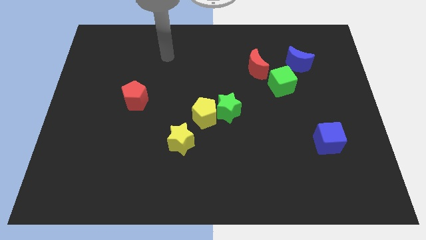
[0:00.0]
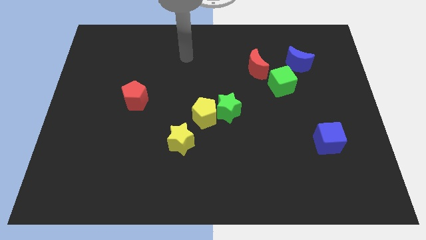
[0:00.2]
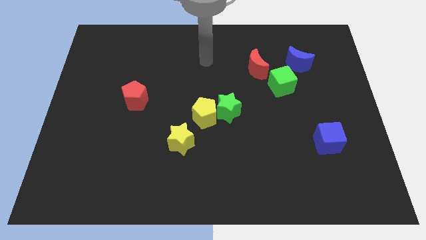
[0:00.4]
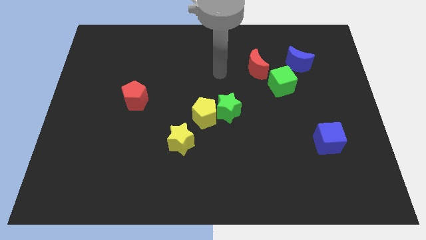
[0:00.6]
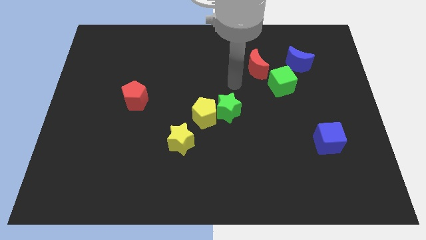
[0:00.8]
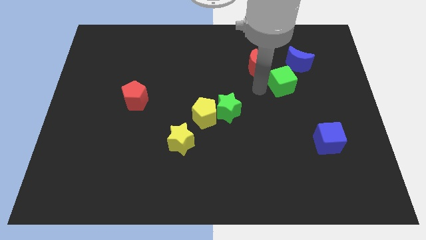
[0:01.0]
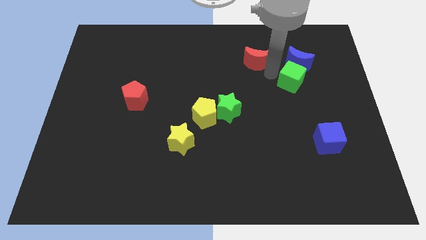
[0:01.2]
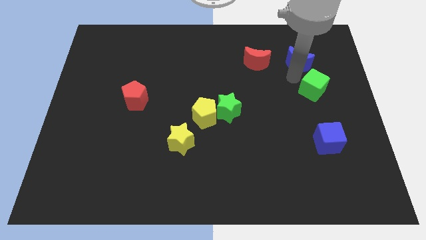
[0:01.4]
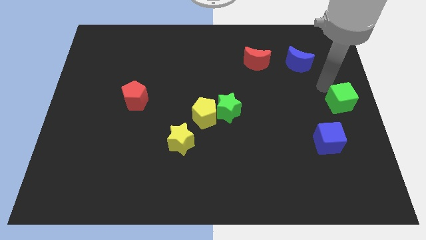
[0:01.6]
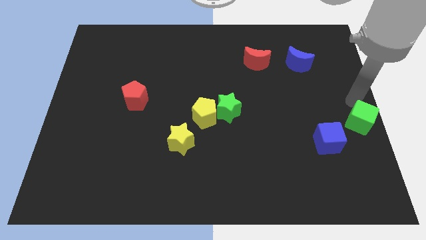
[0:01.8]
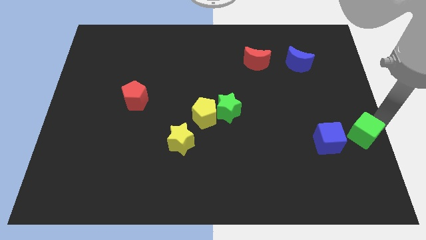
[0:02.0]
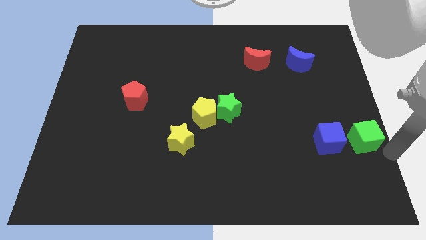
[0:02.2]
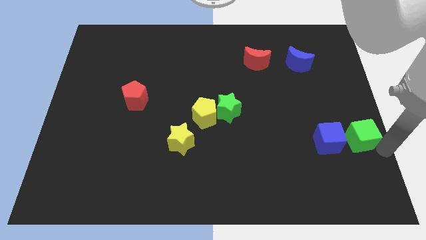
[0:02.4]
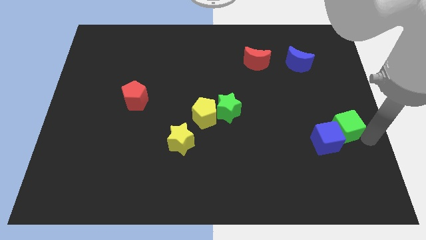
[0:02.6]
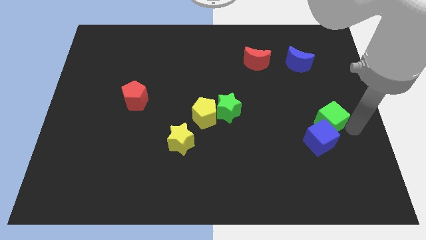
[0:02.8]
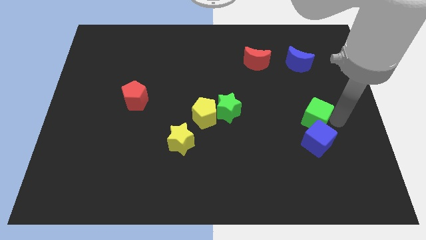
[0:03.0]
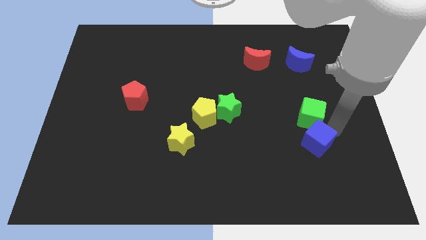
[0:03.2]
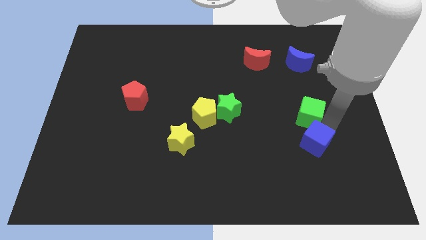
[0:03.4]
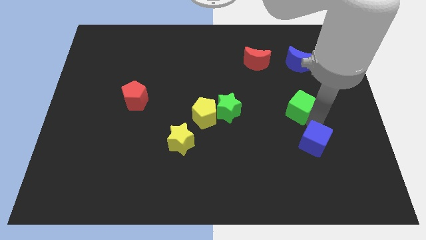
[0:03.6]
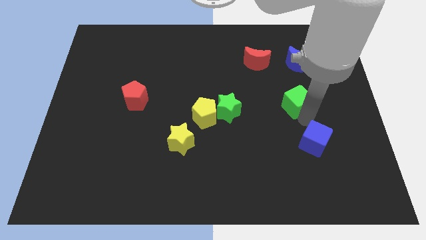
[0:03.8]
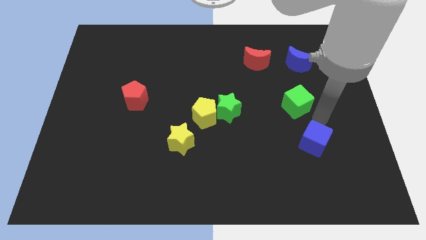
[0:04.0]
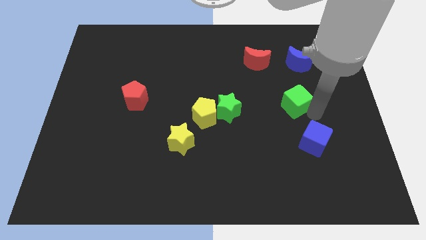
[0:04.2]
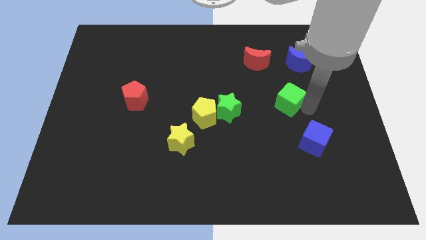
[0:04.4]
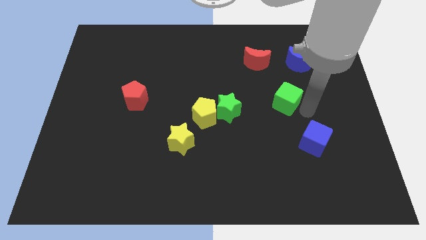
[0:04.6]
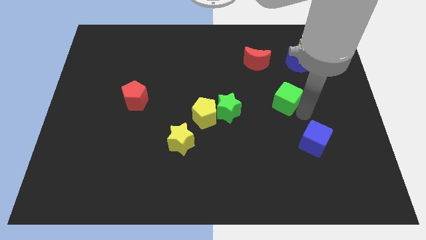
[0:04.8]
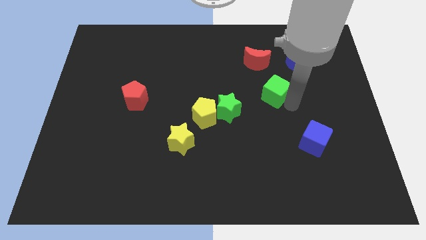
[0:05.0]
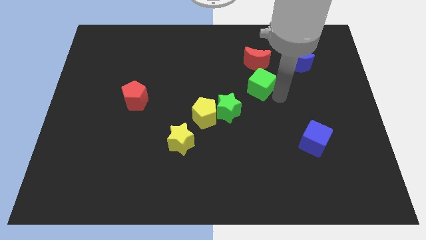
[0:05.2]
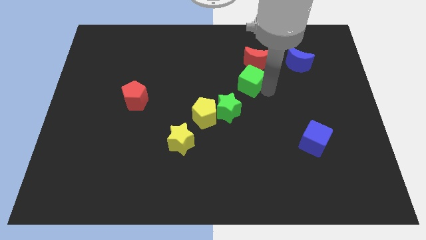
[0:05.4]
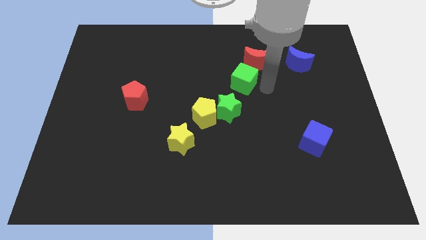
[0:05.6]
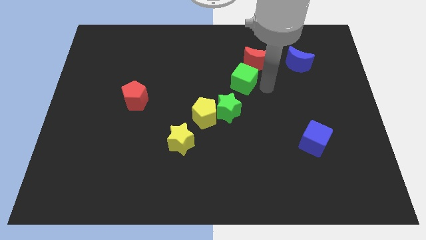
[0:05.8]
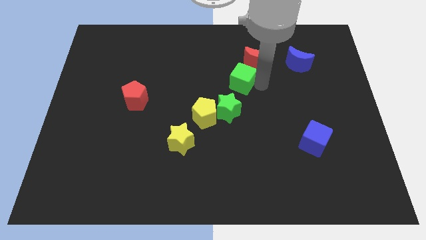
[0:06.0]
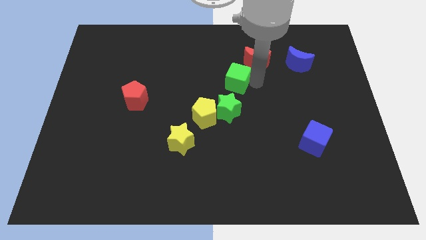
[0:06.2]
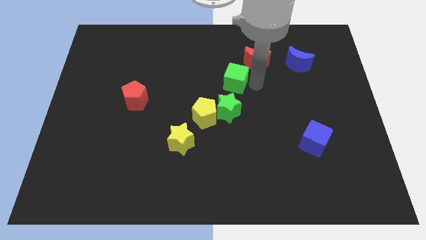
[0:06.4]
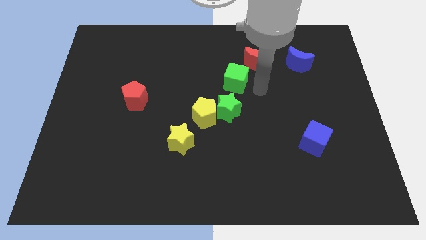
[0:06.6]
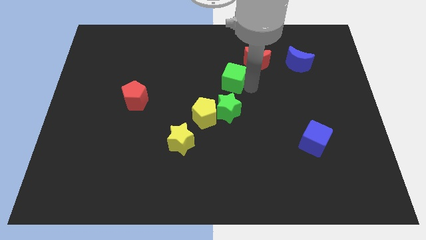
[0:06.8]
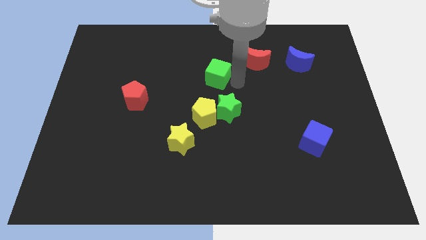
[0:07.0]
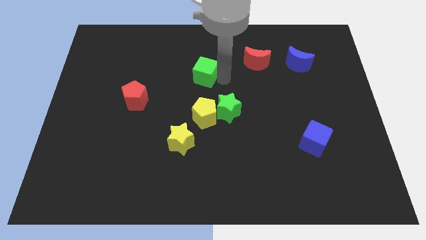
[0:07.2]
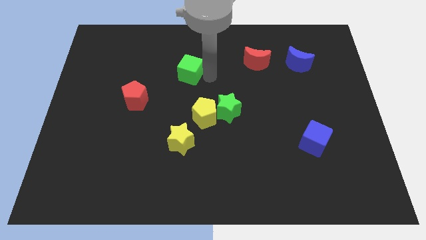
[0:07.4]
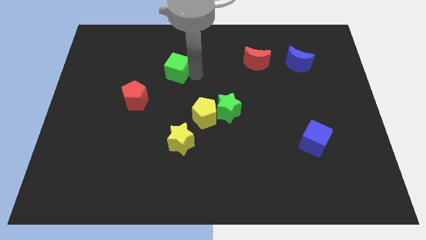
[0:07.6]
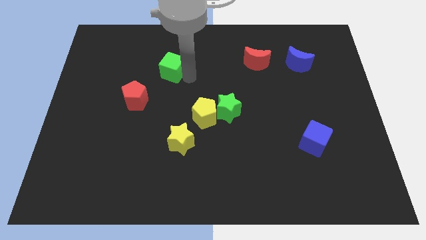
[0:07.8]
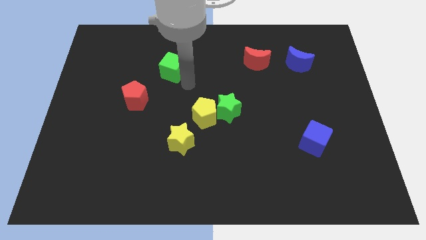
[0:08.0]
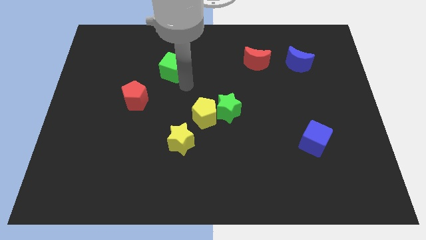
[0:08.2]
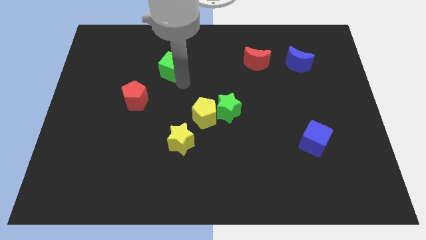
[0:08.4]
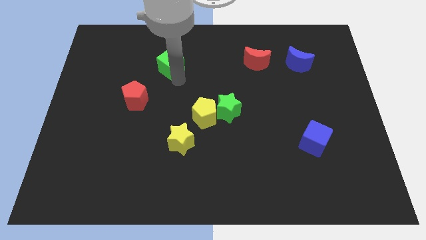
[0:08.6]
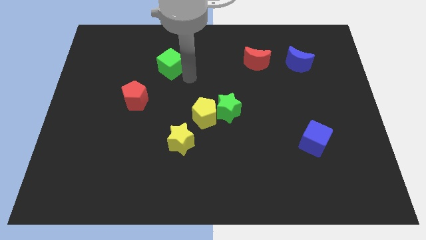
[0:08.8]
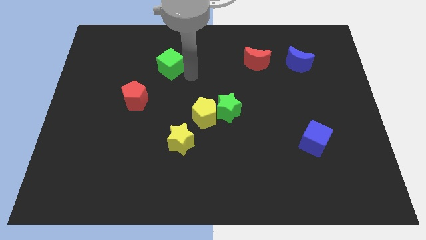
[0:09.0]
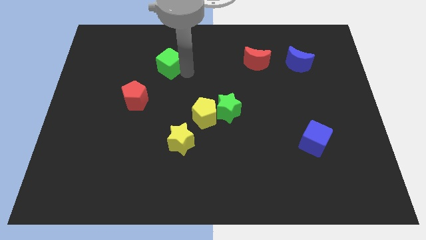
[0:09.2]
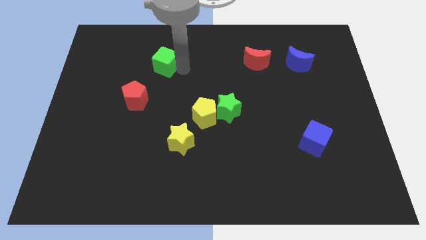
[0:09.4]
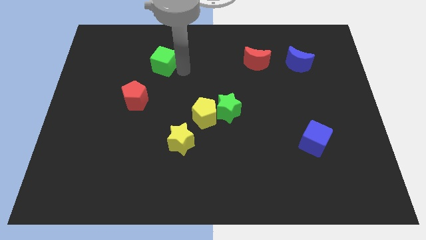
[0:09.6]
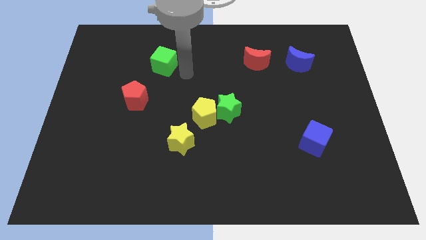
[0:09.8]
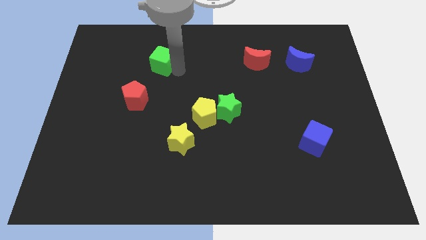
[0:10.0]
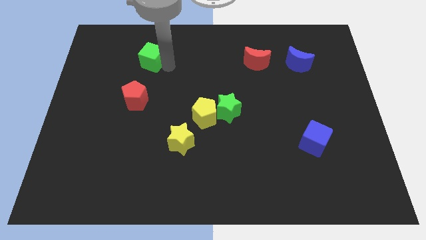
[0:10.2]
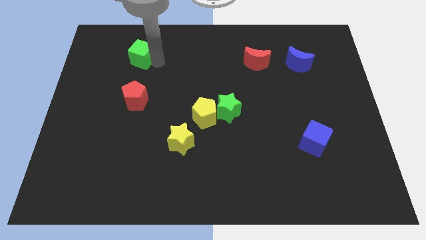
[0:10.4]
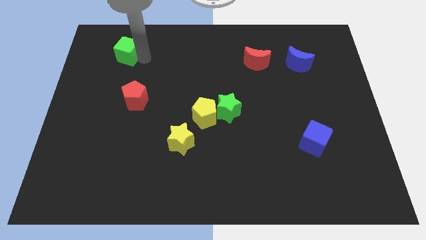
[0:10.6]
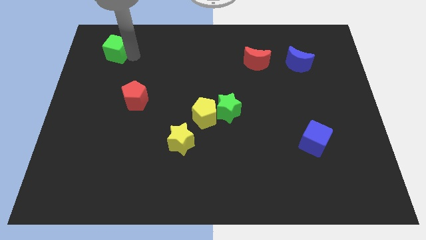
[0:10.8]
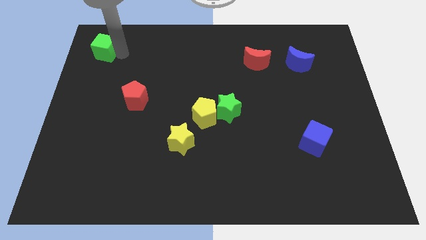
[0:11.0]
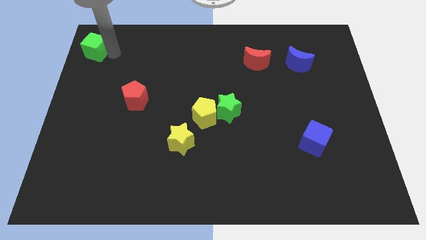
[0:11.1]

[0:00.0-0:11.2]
push the green cube to the top left
